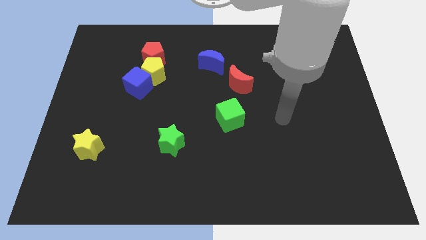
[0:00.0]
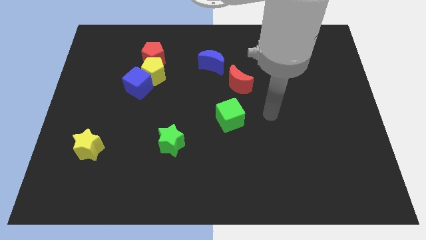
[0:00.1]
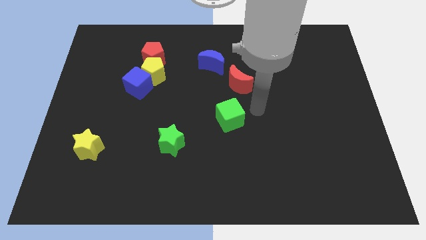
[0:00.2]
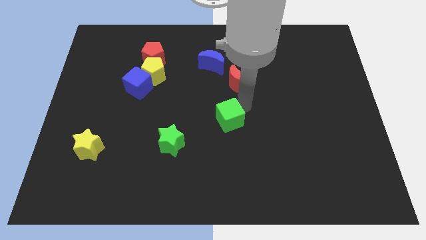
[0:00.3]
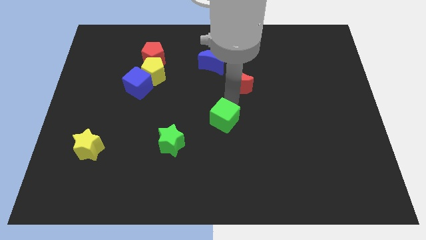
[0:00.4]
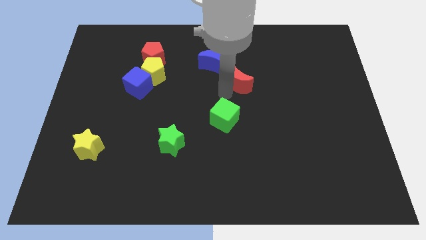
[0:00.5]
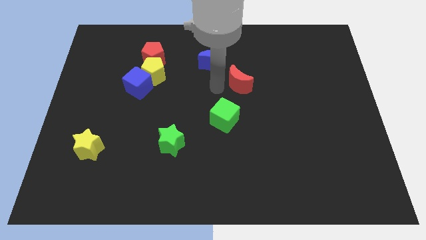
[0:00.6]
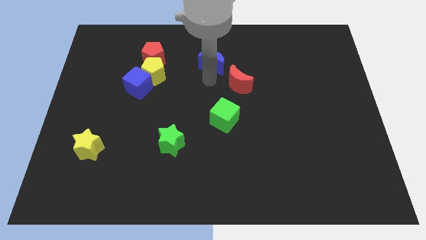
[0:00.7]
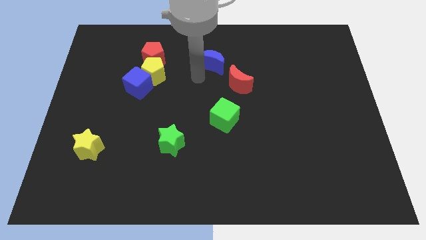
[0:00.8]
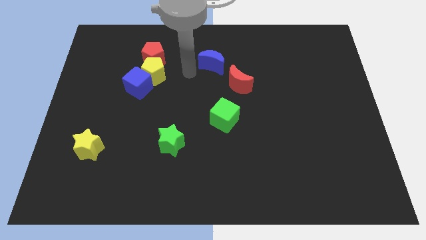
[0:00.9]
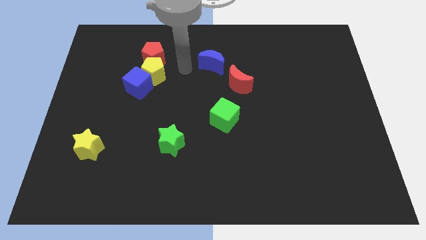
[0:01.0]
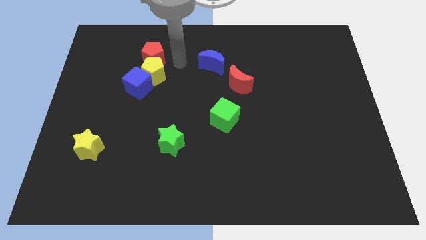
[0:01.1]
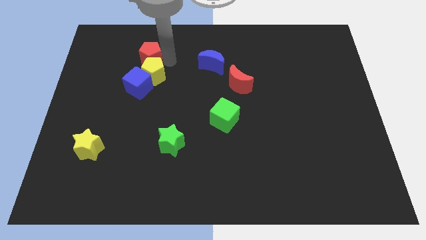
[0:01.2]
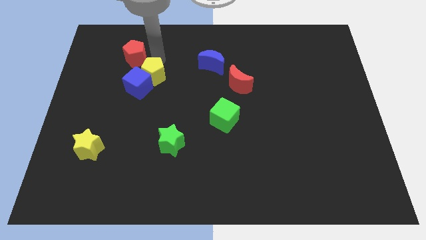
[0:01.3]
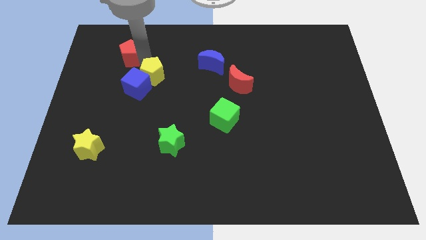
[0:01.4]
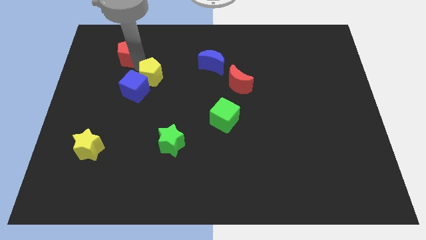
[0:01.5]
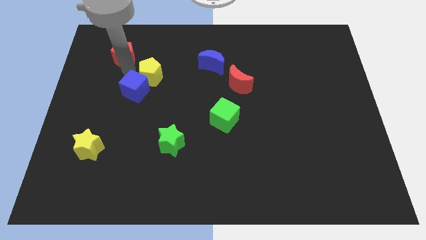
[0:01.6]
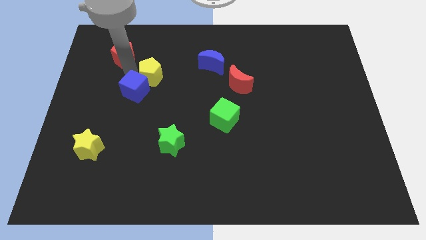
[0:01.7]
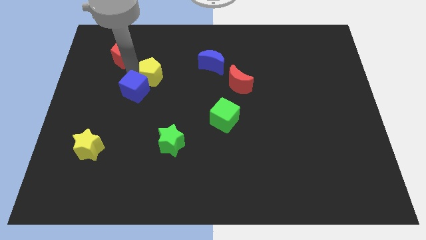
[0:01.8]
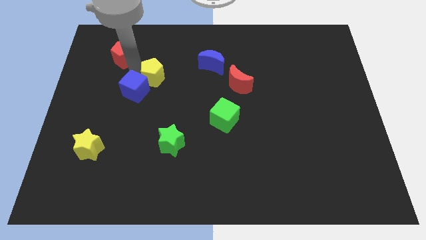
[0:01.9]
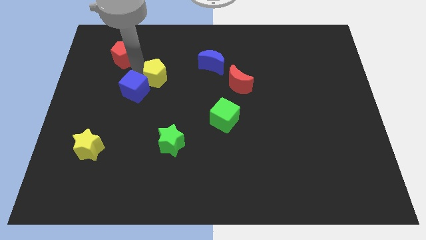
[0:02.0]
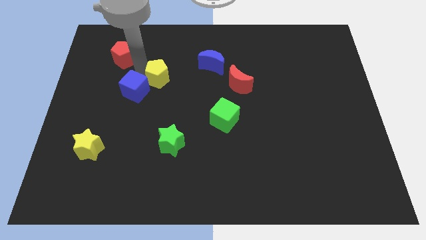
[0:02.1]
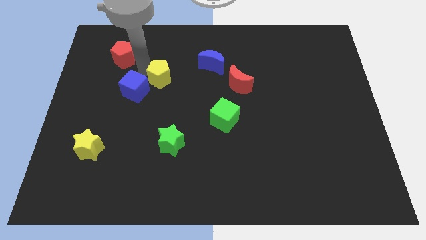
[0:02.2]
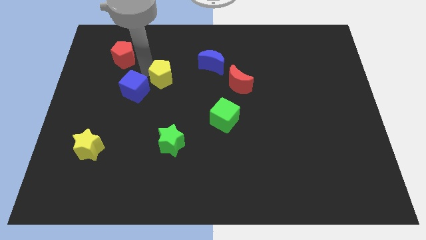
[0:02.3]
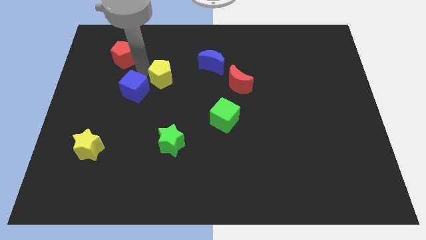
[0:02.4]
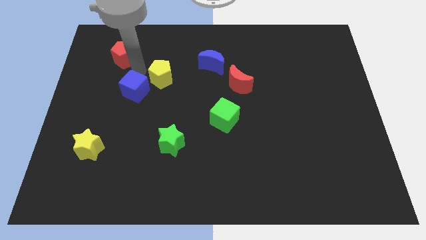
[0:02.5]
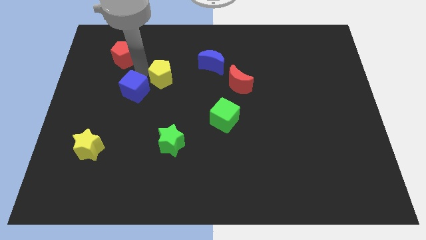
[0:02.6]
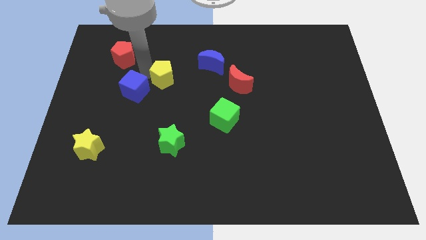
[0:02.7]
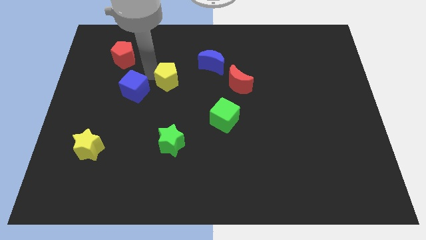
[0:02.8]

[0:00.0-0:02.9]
separate the yellow pentagon from the blue cube and red pentagon

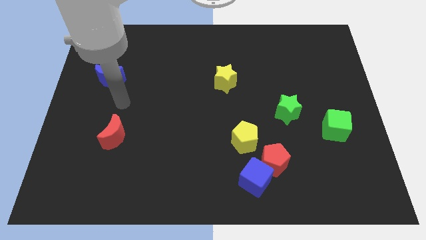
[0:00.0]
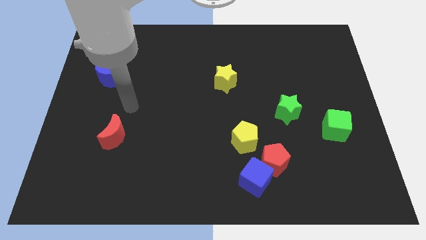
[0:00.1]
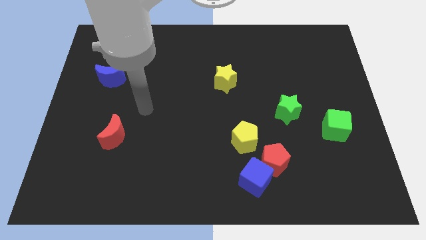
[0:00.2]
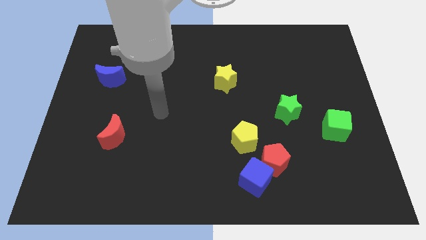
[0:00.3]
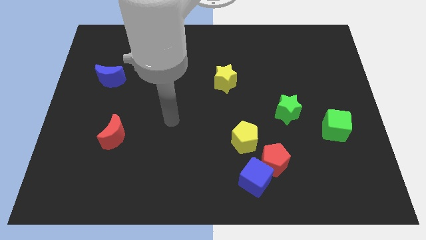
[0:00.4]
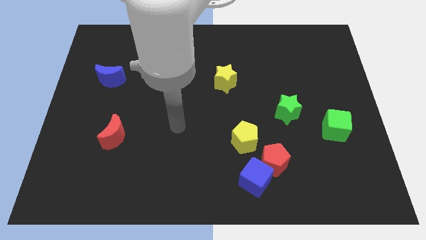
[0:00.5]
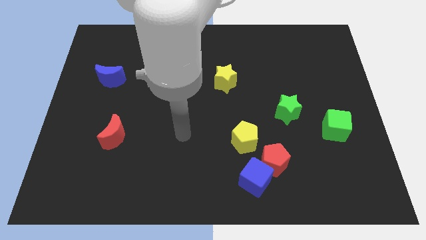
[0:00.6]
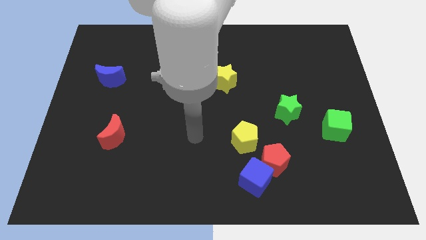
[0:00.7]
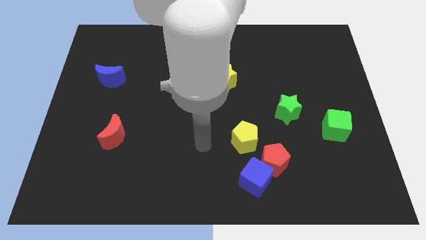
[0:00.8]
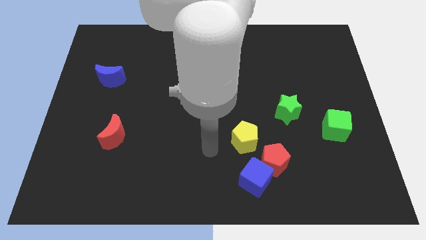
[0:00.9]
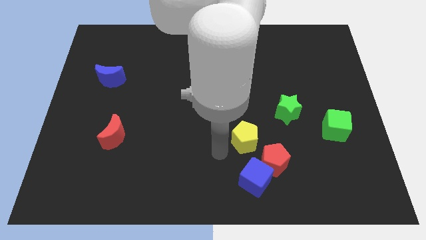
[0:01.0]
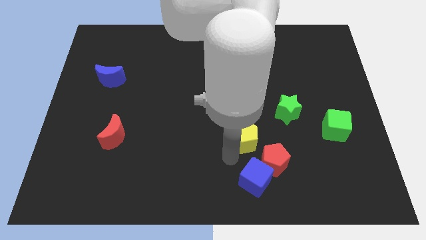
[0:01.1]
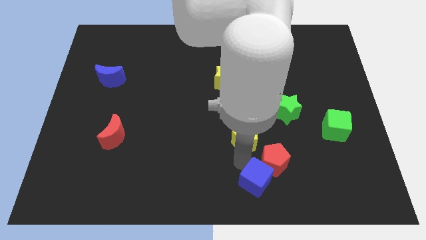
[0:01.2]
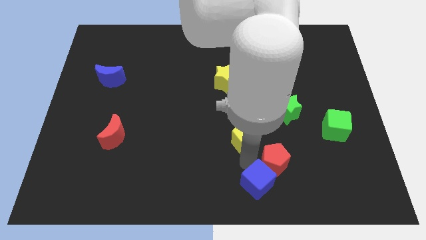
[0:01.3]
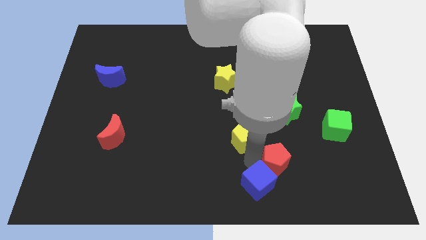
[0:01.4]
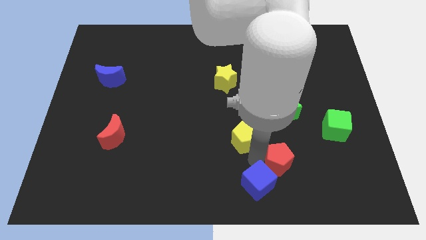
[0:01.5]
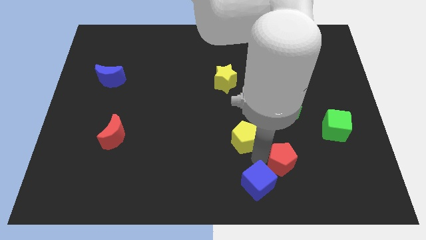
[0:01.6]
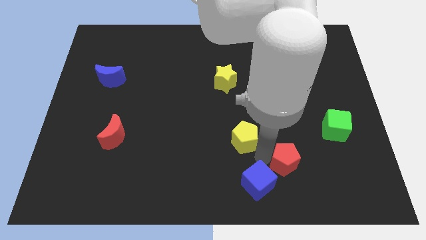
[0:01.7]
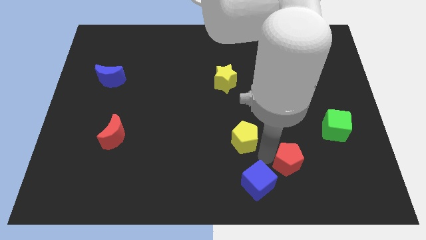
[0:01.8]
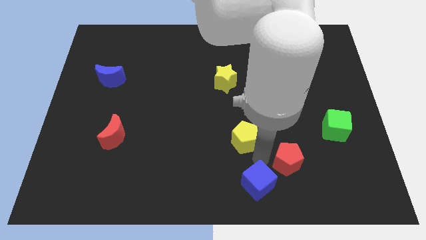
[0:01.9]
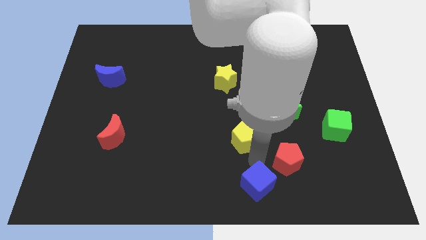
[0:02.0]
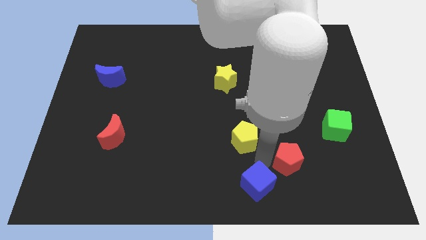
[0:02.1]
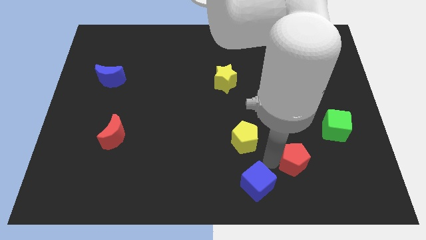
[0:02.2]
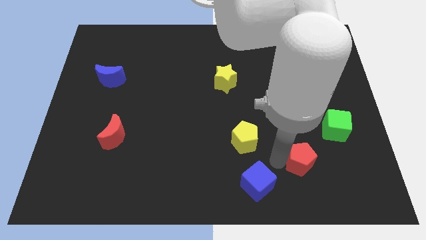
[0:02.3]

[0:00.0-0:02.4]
pull the red pentagon apart from the blue cube and yellow pentagon

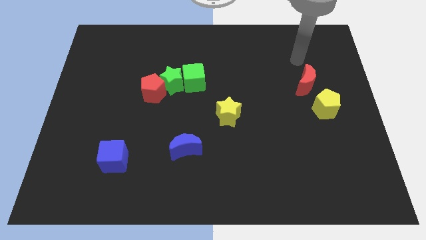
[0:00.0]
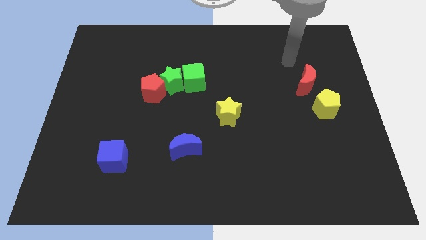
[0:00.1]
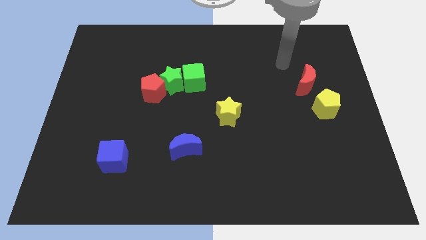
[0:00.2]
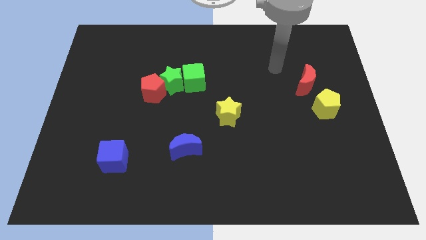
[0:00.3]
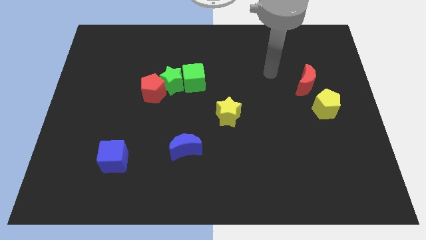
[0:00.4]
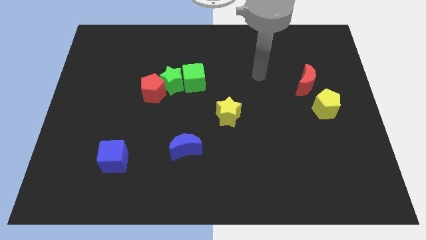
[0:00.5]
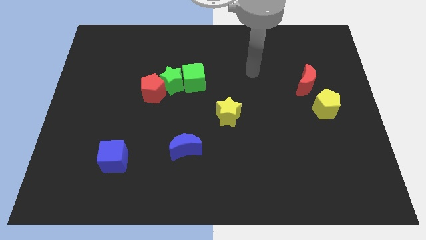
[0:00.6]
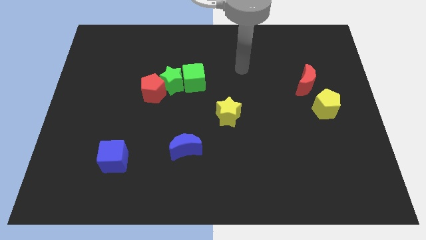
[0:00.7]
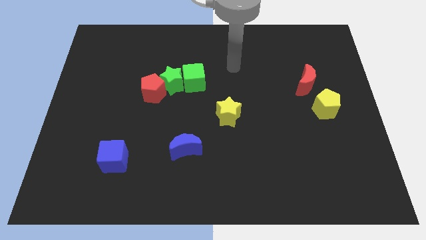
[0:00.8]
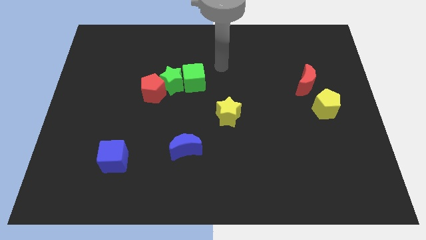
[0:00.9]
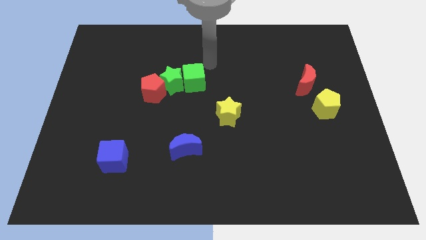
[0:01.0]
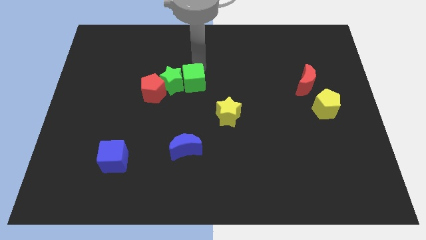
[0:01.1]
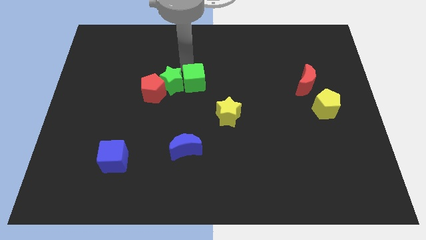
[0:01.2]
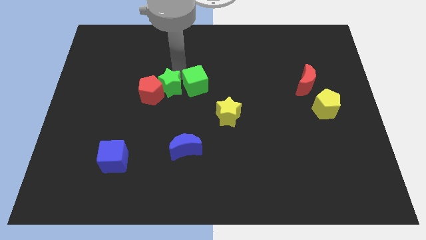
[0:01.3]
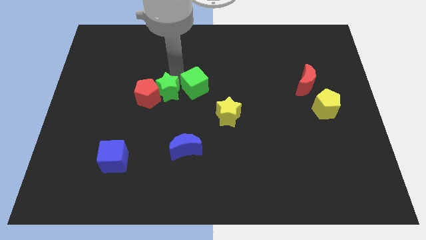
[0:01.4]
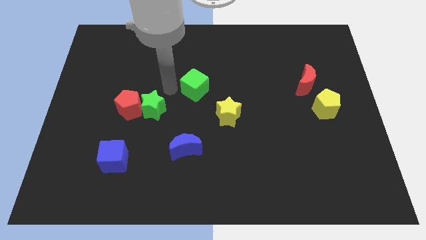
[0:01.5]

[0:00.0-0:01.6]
move the green cube away from the green star

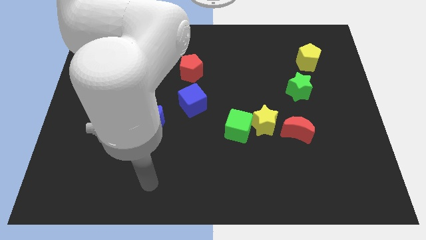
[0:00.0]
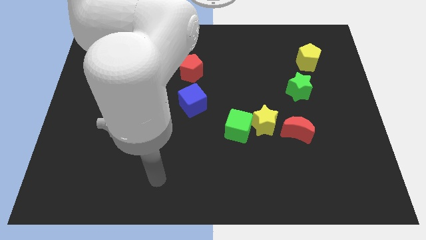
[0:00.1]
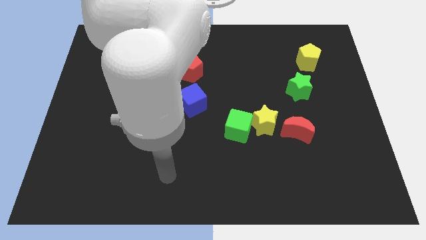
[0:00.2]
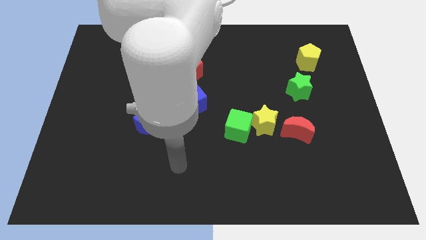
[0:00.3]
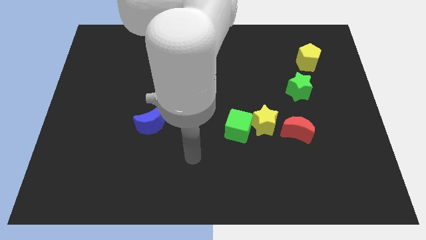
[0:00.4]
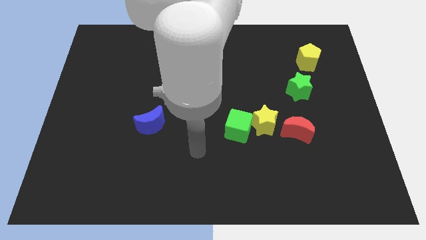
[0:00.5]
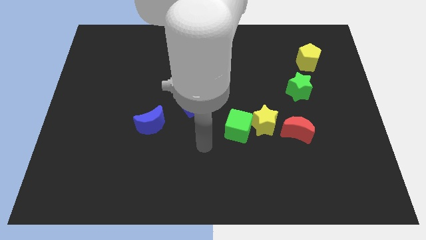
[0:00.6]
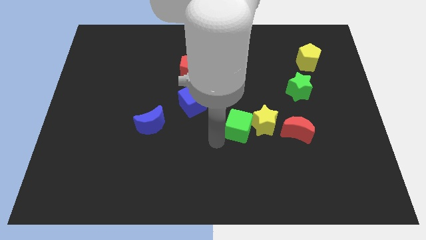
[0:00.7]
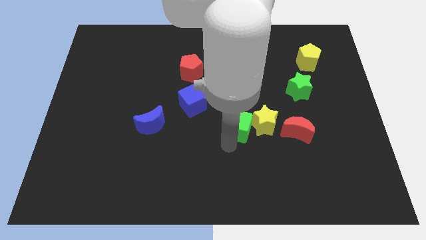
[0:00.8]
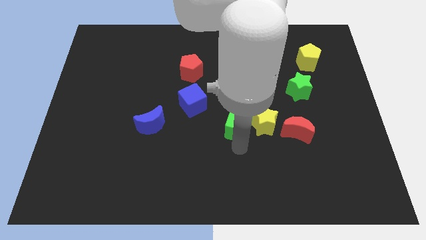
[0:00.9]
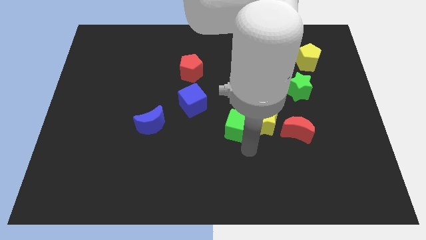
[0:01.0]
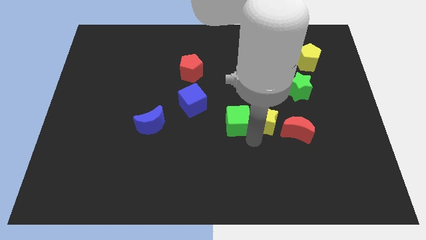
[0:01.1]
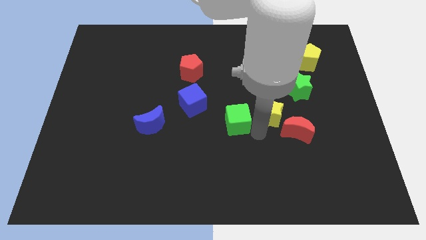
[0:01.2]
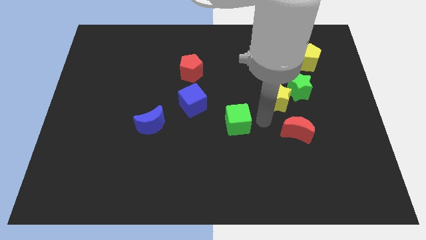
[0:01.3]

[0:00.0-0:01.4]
separate the green cube from the yellow star

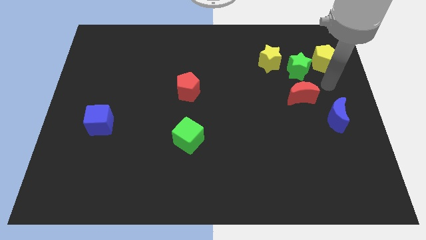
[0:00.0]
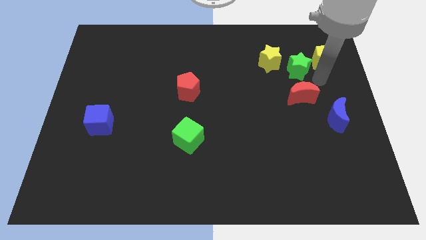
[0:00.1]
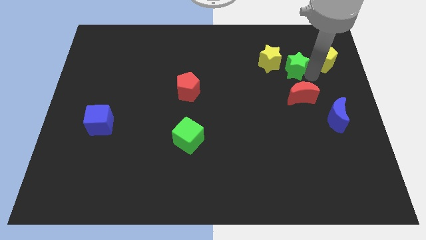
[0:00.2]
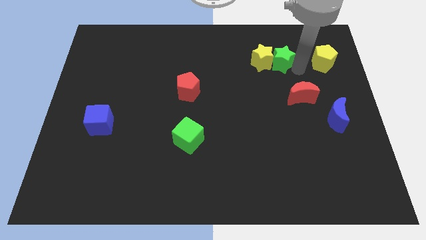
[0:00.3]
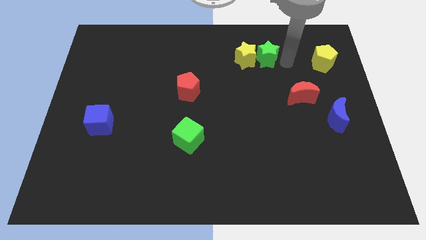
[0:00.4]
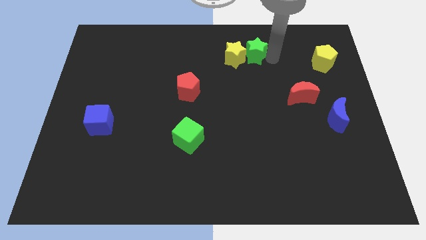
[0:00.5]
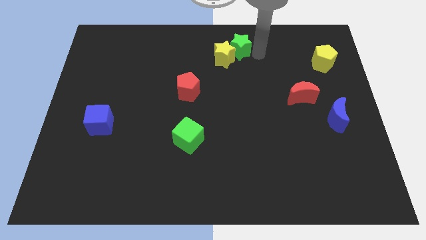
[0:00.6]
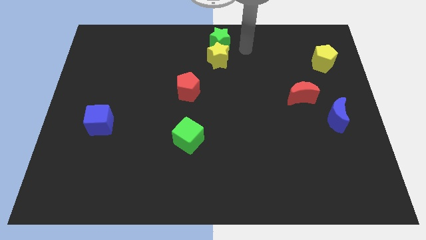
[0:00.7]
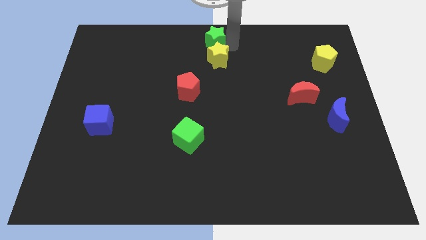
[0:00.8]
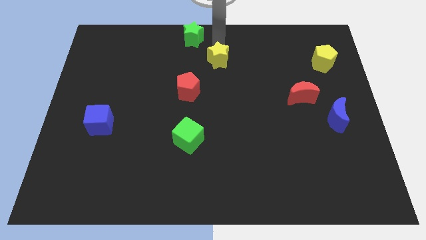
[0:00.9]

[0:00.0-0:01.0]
separate the yellow star from the green star
